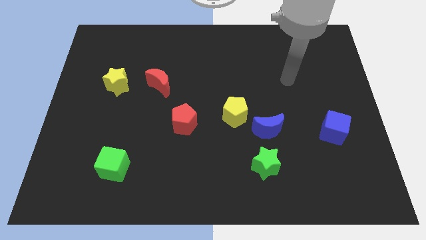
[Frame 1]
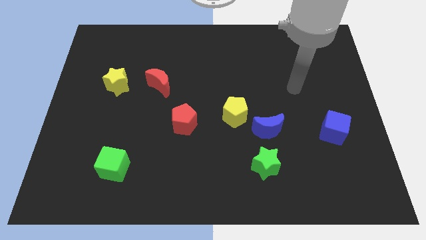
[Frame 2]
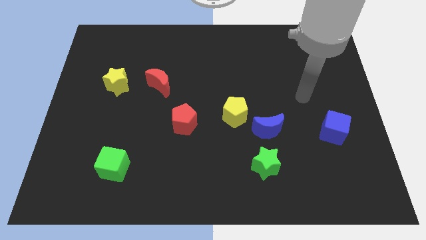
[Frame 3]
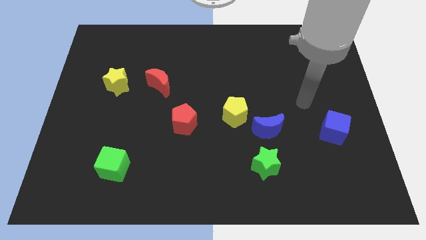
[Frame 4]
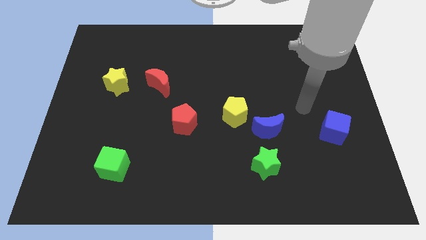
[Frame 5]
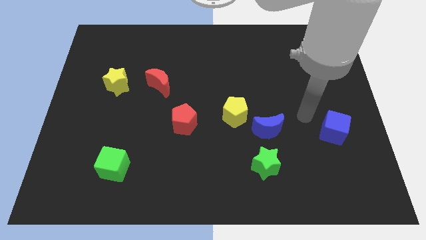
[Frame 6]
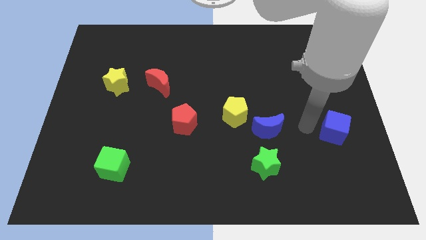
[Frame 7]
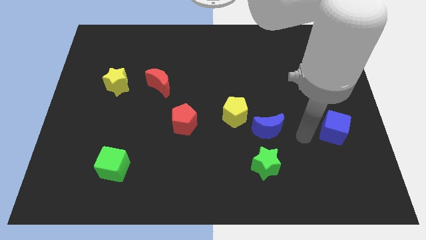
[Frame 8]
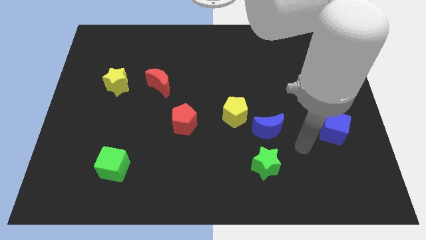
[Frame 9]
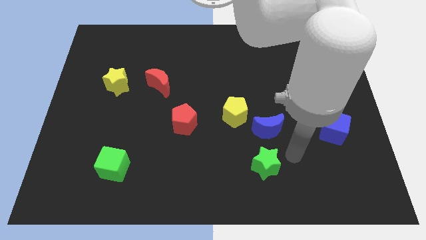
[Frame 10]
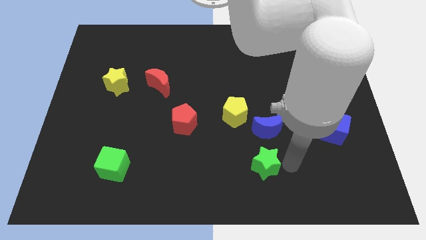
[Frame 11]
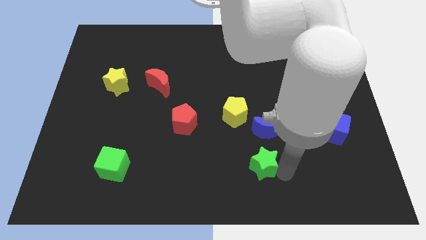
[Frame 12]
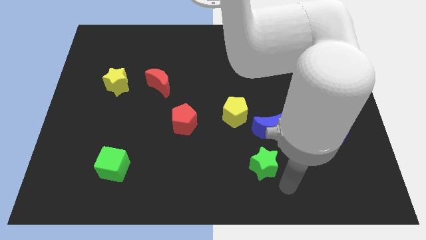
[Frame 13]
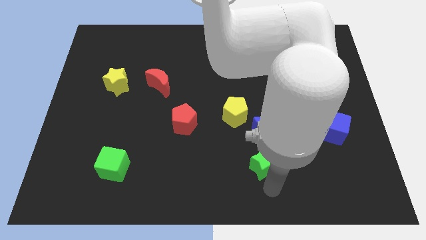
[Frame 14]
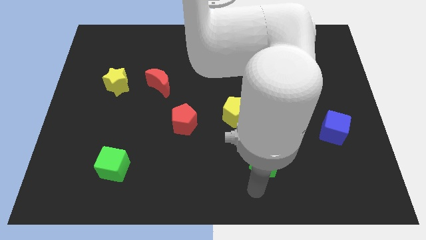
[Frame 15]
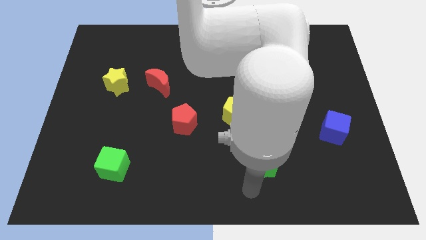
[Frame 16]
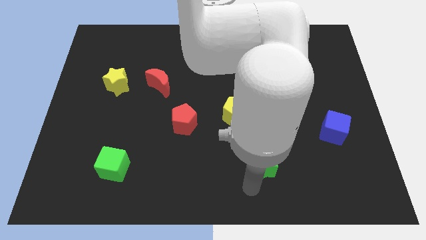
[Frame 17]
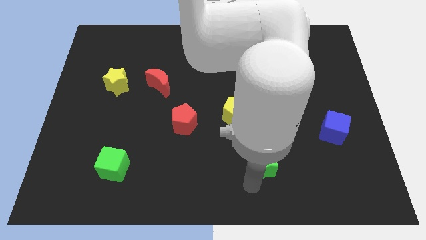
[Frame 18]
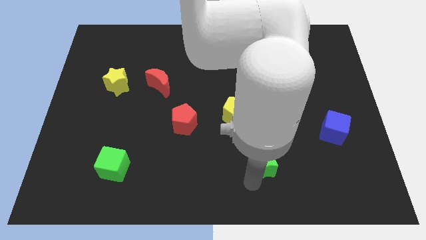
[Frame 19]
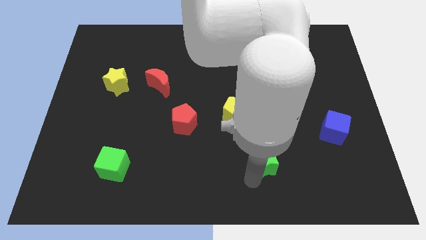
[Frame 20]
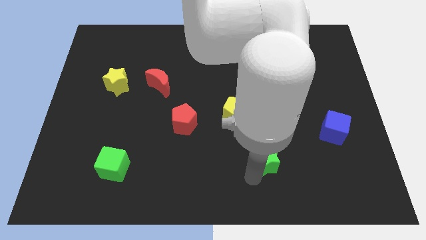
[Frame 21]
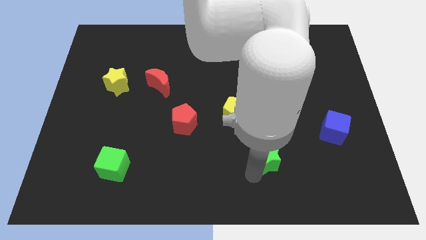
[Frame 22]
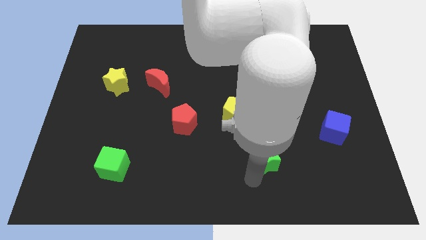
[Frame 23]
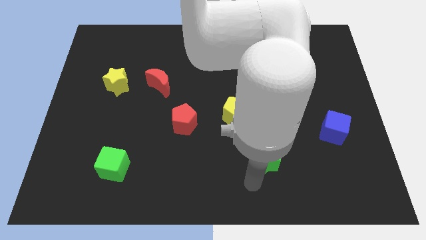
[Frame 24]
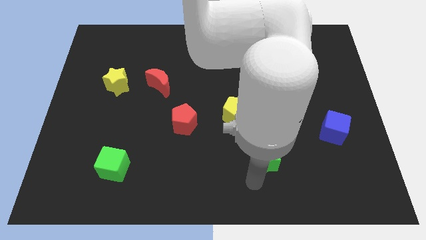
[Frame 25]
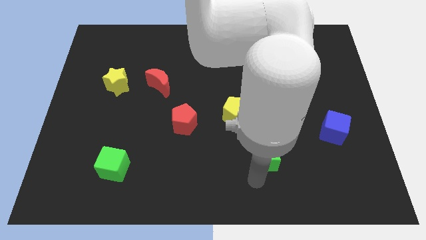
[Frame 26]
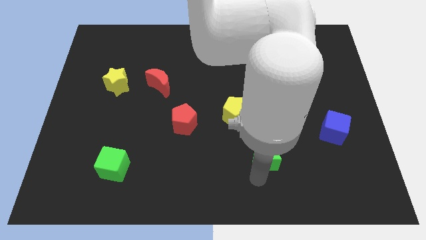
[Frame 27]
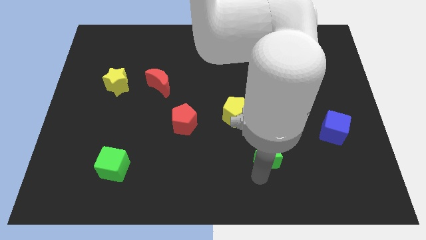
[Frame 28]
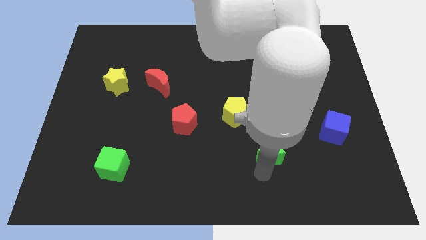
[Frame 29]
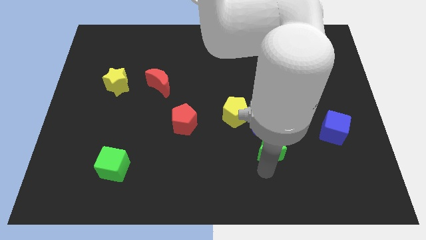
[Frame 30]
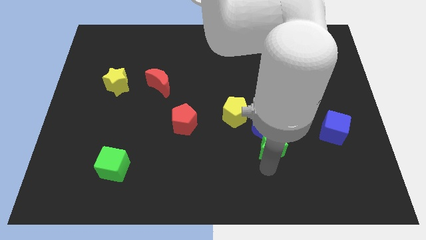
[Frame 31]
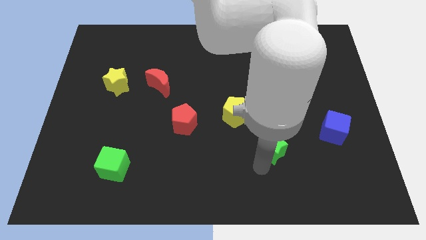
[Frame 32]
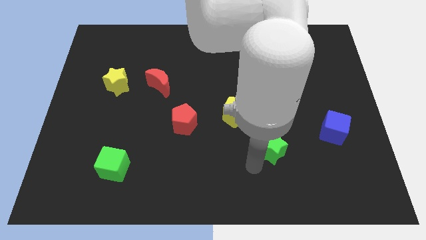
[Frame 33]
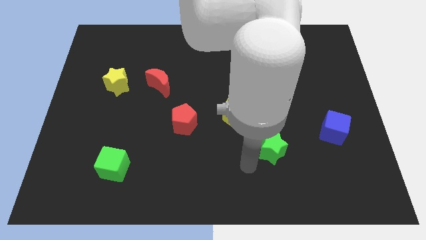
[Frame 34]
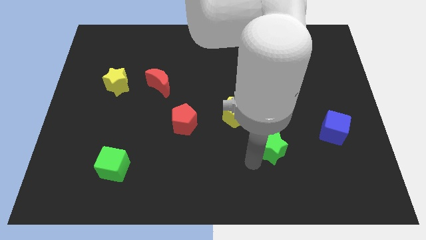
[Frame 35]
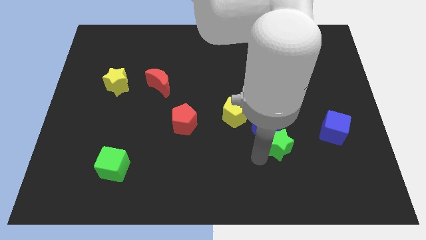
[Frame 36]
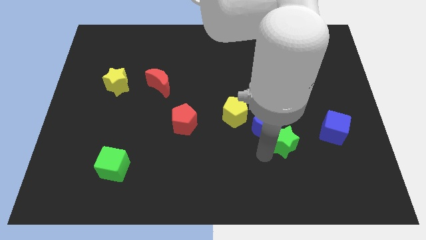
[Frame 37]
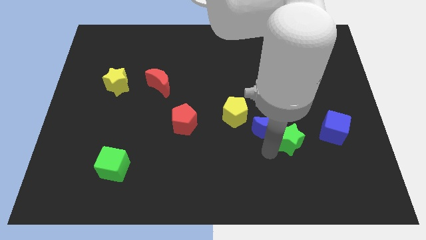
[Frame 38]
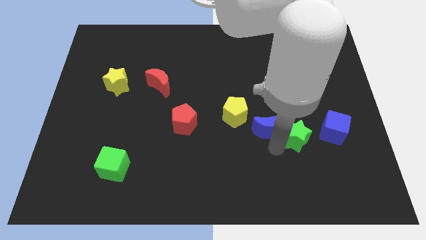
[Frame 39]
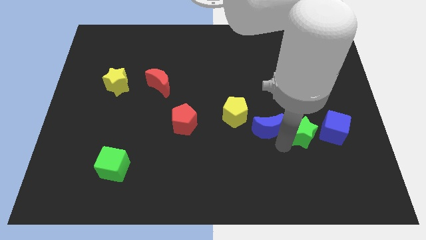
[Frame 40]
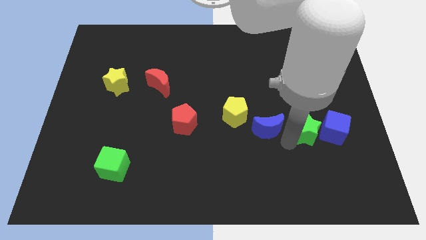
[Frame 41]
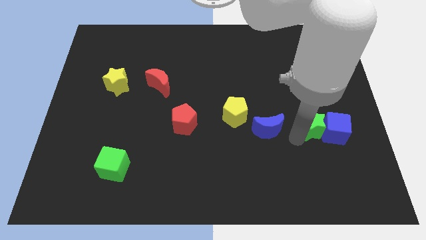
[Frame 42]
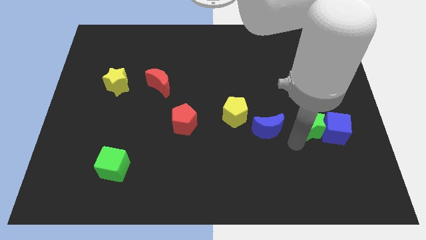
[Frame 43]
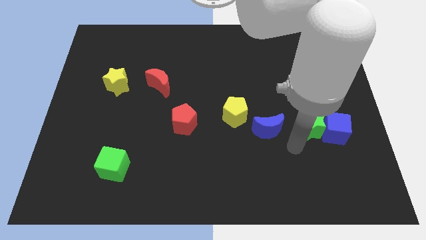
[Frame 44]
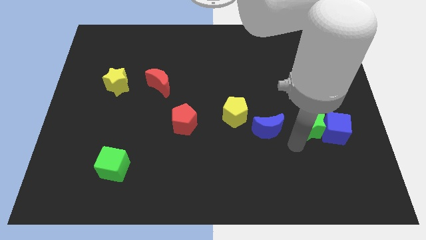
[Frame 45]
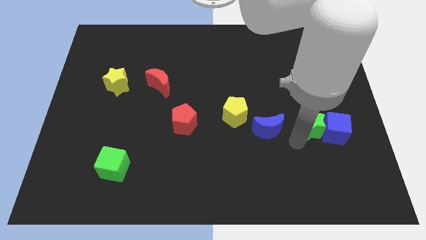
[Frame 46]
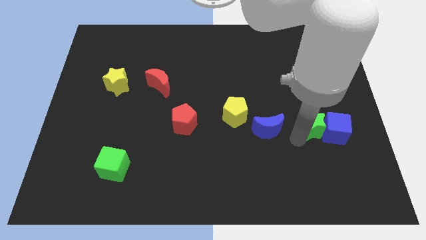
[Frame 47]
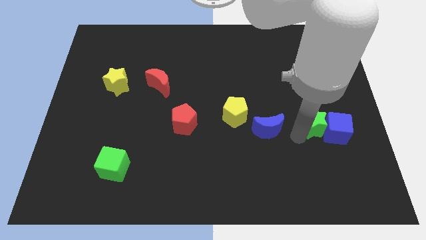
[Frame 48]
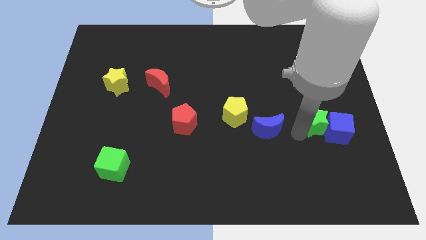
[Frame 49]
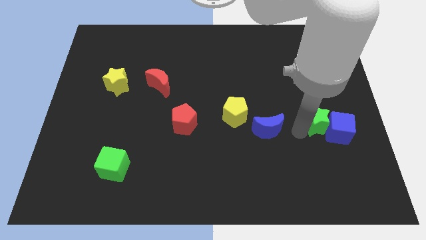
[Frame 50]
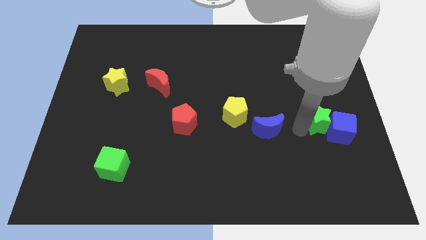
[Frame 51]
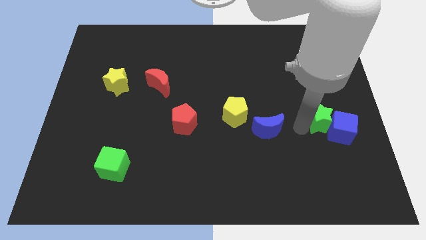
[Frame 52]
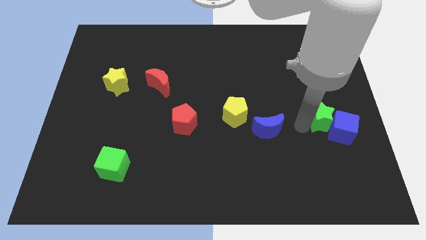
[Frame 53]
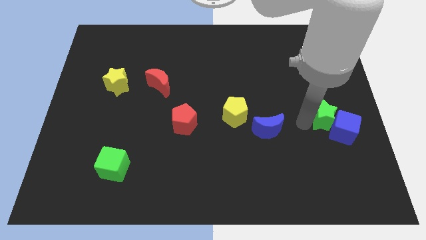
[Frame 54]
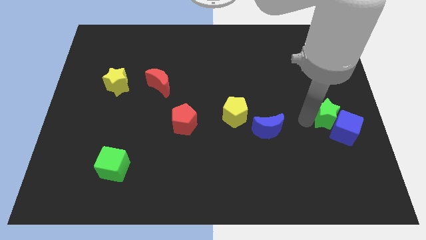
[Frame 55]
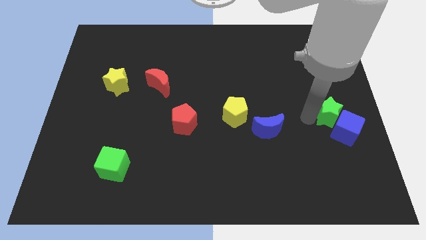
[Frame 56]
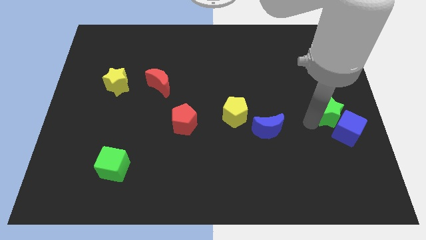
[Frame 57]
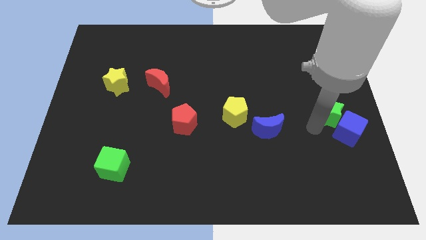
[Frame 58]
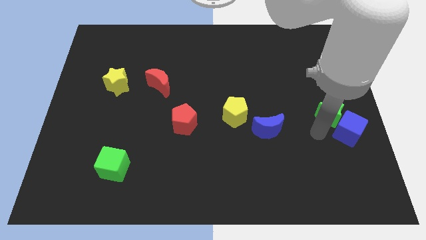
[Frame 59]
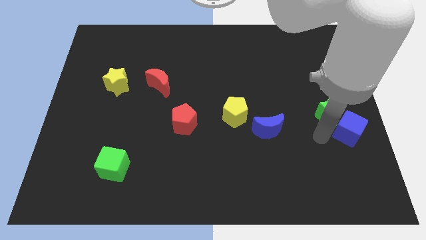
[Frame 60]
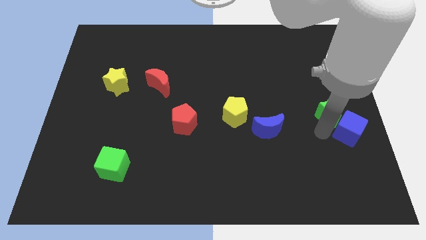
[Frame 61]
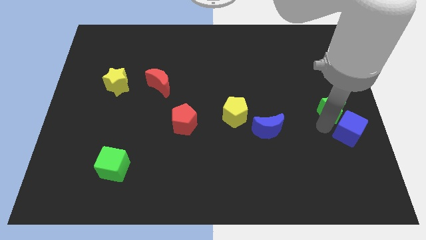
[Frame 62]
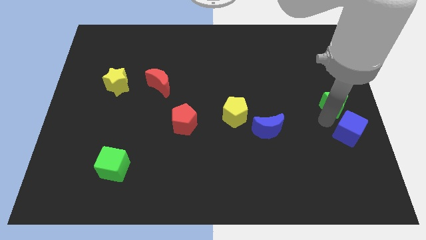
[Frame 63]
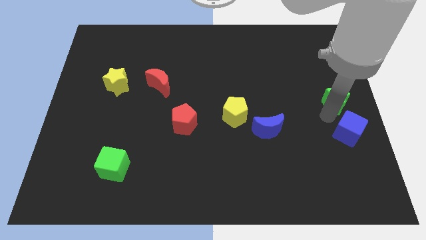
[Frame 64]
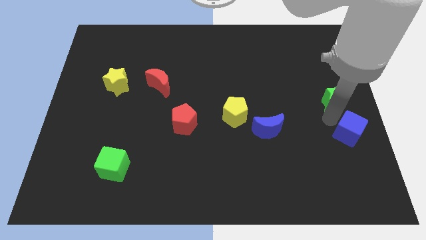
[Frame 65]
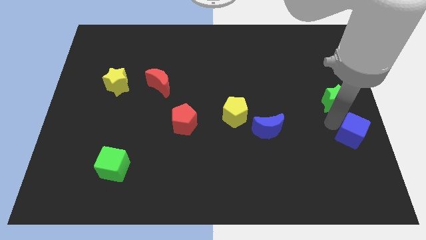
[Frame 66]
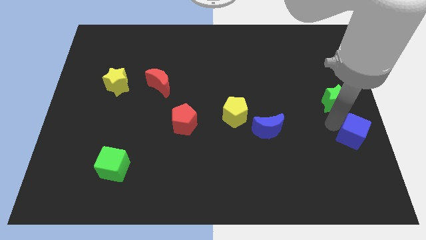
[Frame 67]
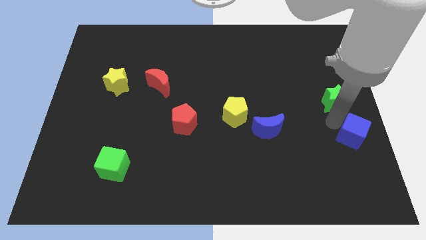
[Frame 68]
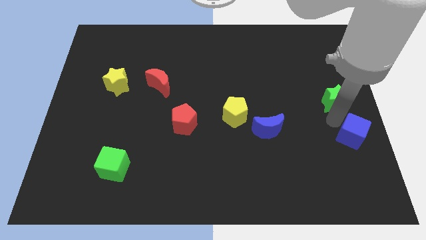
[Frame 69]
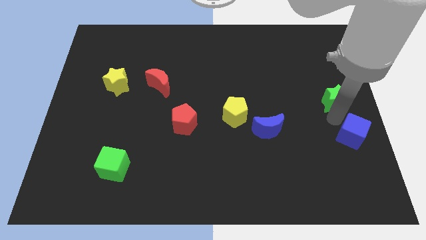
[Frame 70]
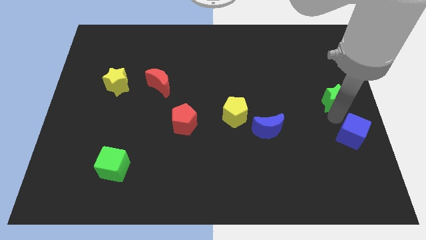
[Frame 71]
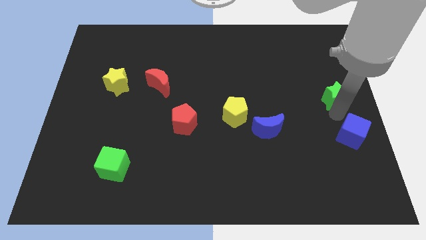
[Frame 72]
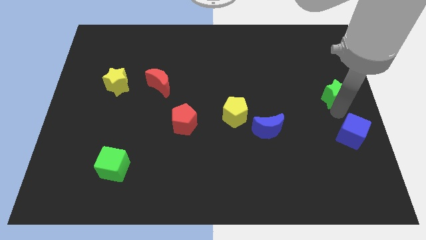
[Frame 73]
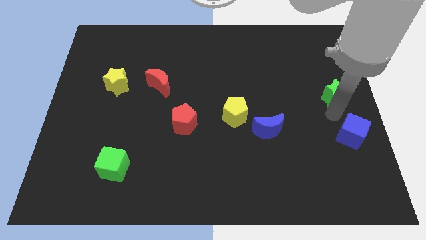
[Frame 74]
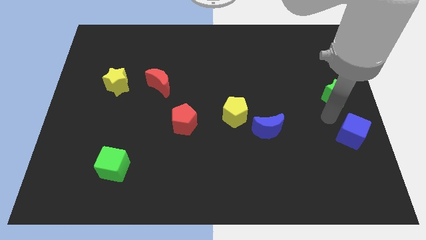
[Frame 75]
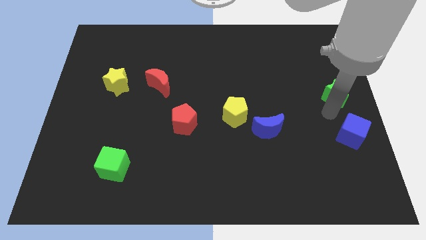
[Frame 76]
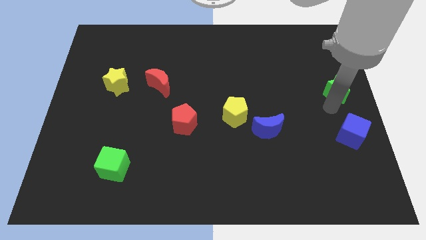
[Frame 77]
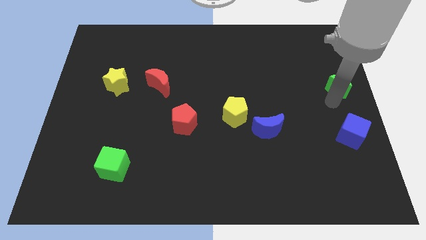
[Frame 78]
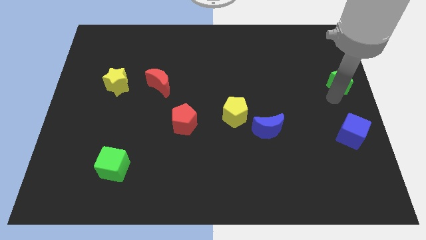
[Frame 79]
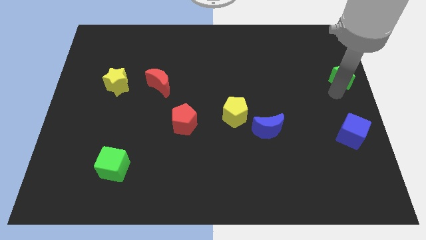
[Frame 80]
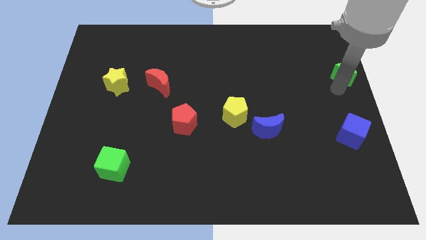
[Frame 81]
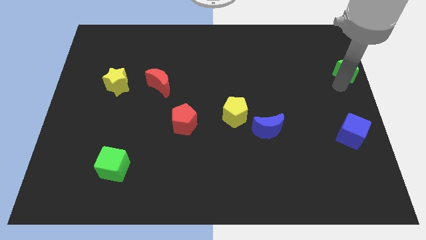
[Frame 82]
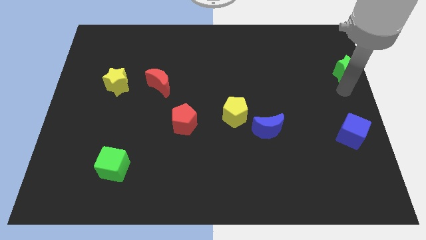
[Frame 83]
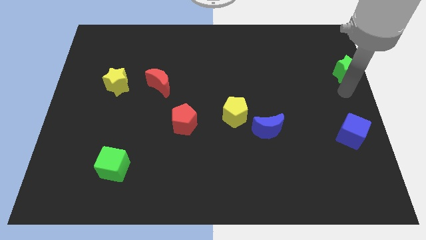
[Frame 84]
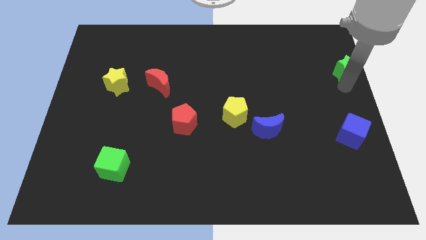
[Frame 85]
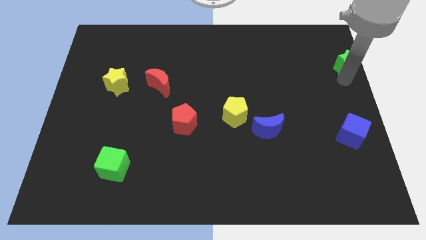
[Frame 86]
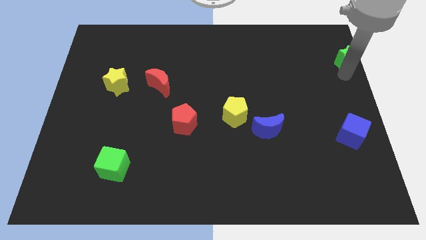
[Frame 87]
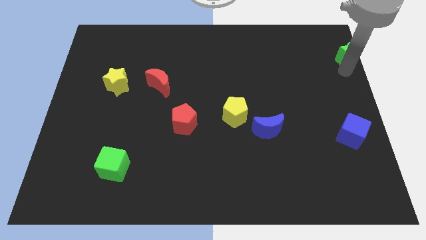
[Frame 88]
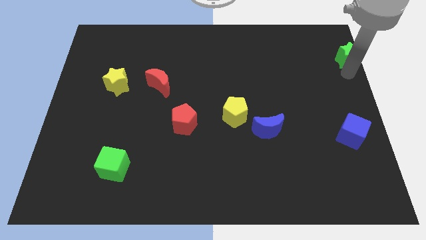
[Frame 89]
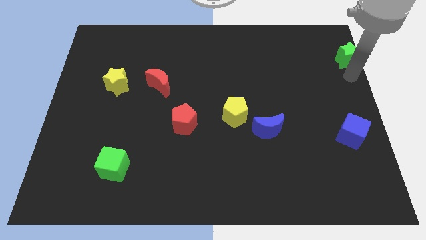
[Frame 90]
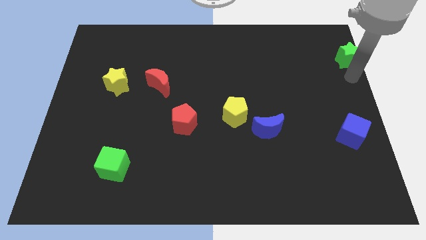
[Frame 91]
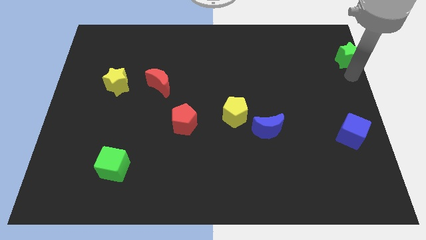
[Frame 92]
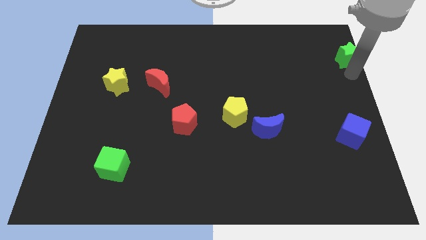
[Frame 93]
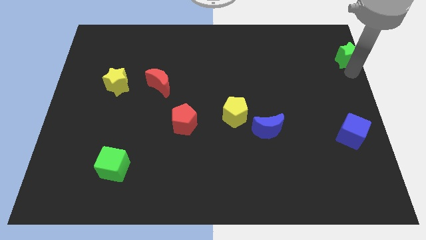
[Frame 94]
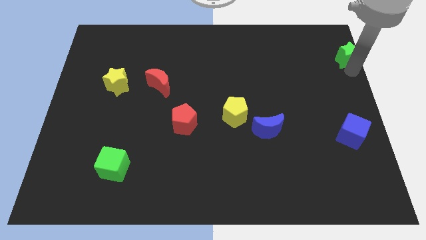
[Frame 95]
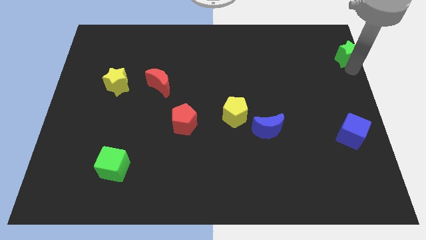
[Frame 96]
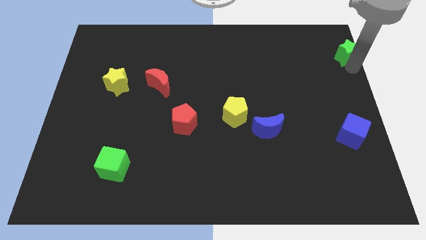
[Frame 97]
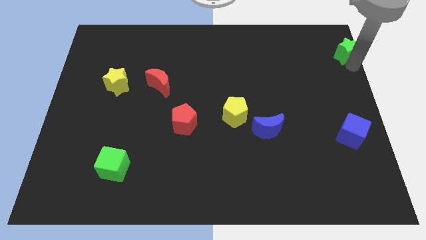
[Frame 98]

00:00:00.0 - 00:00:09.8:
push the green star to the top right of the board
